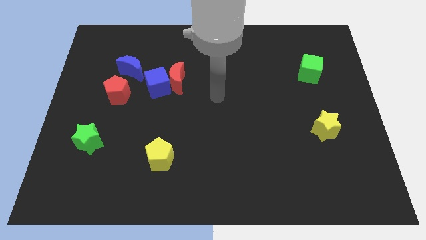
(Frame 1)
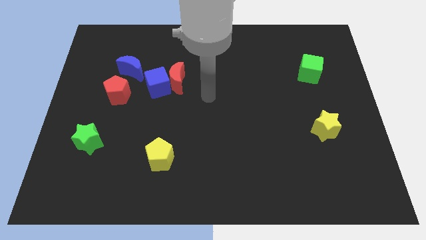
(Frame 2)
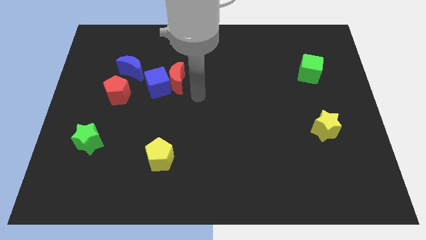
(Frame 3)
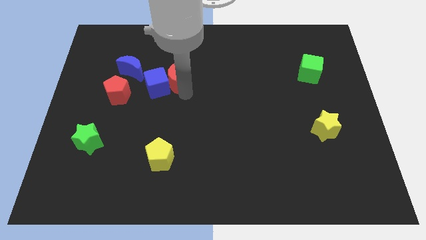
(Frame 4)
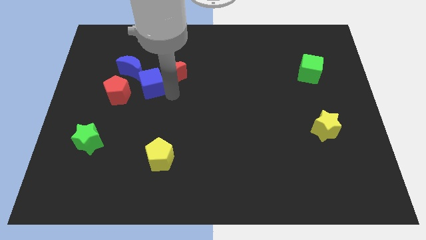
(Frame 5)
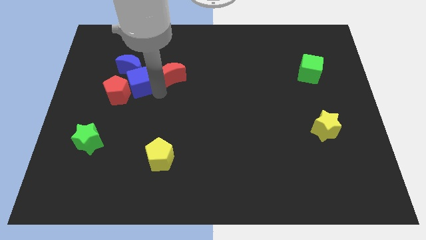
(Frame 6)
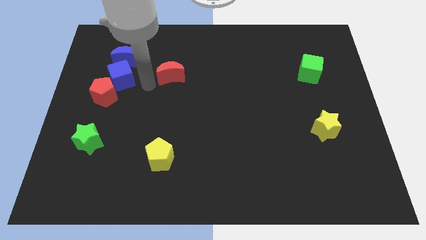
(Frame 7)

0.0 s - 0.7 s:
move the red moon away from the blue cube

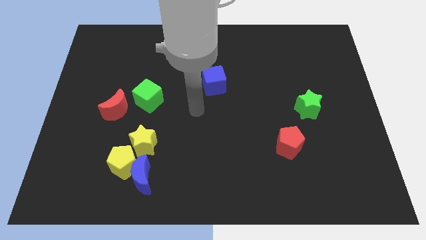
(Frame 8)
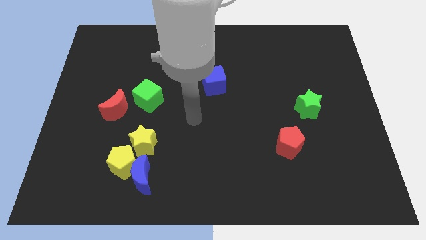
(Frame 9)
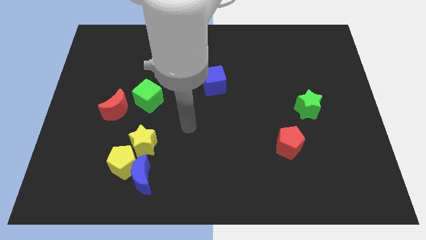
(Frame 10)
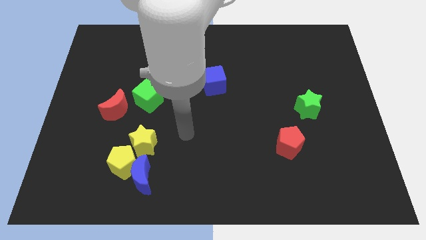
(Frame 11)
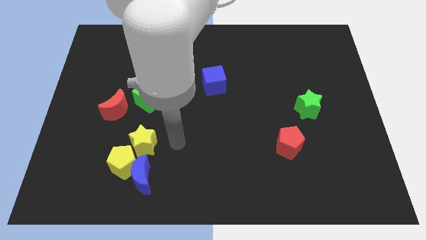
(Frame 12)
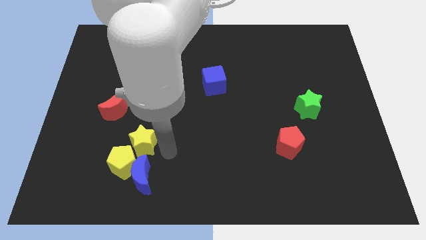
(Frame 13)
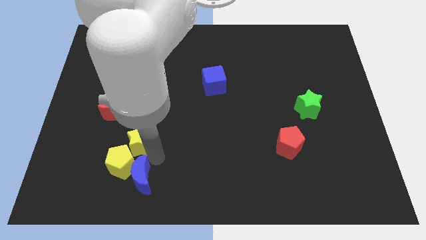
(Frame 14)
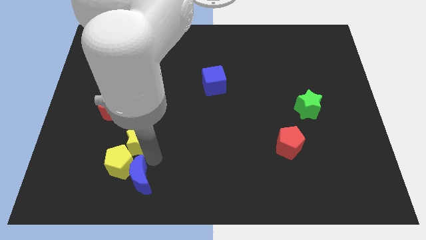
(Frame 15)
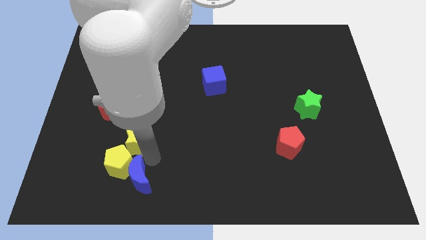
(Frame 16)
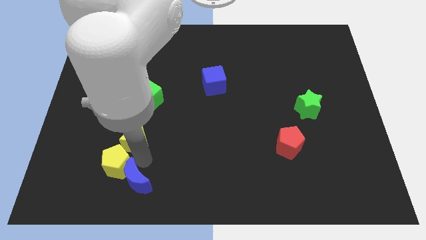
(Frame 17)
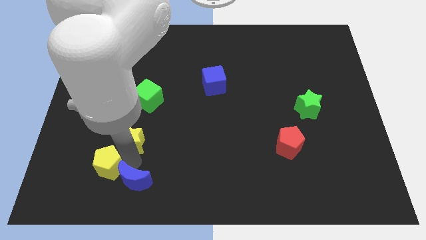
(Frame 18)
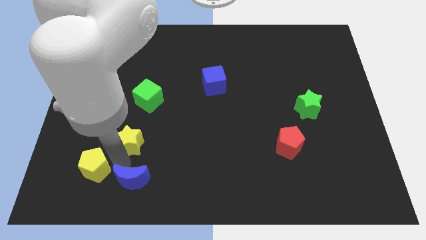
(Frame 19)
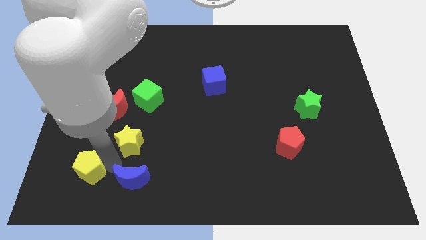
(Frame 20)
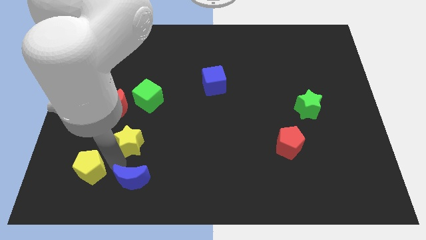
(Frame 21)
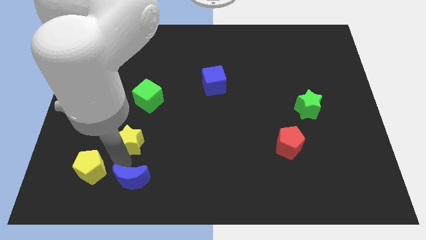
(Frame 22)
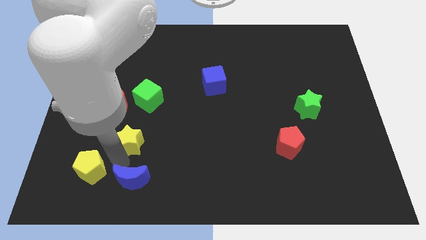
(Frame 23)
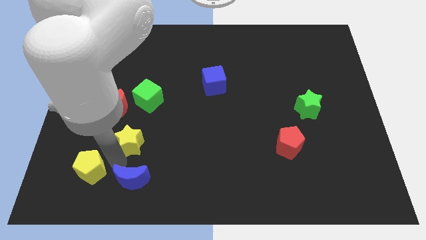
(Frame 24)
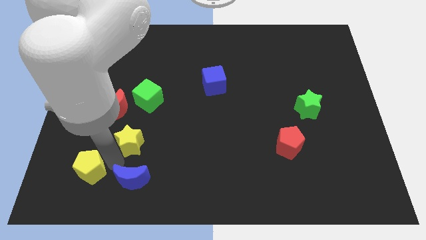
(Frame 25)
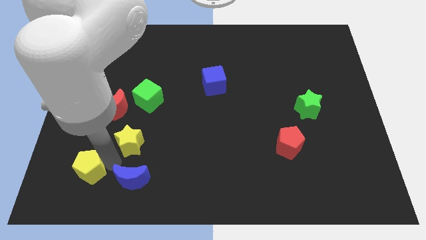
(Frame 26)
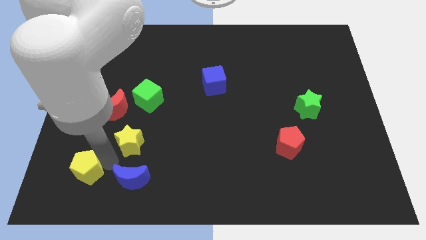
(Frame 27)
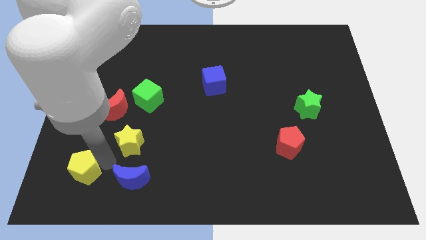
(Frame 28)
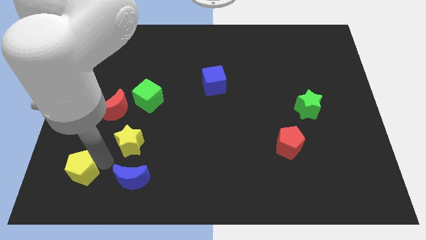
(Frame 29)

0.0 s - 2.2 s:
move the yellow pentagon away from the blue moon and yellow star

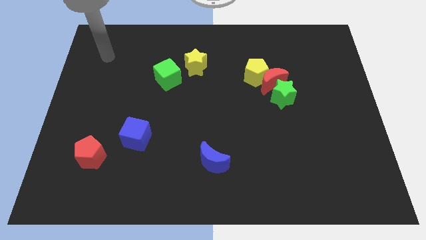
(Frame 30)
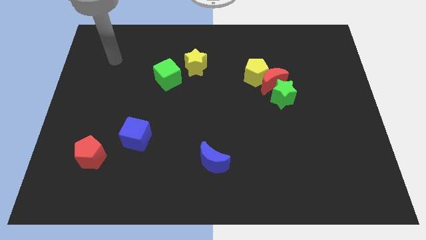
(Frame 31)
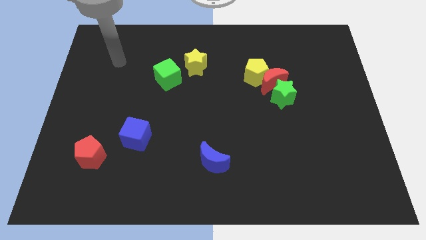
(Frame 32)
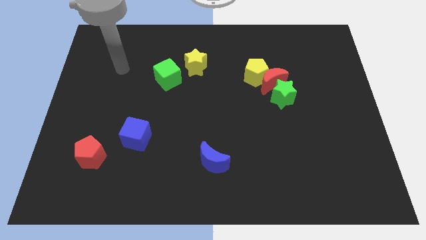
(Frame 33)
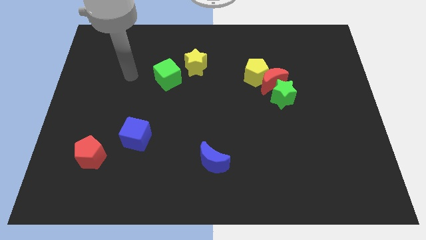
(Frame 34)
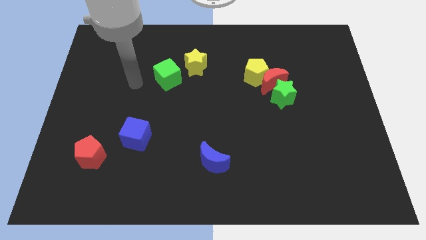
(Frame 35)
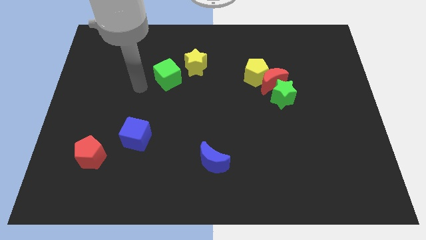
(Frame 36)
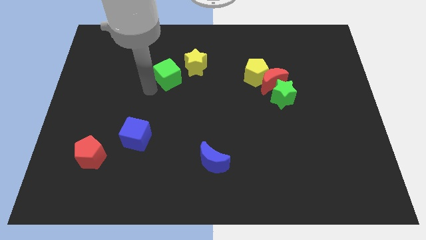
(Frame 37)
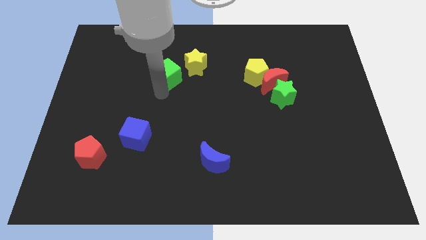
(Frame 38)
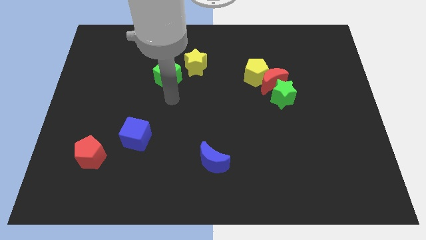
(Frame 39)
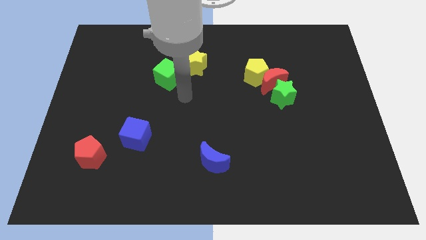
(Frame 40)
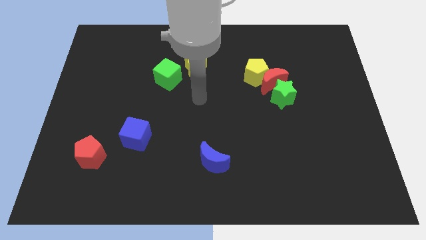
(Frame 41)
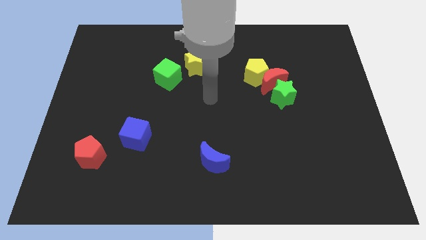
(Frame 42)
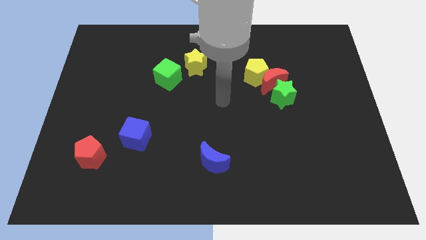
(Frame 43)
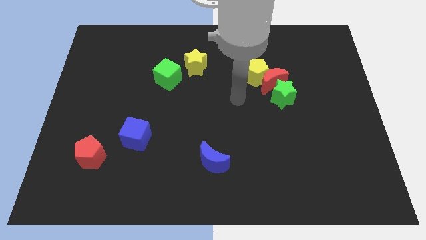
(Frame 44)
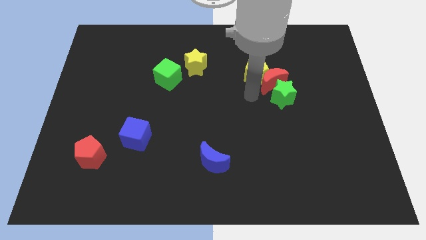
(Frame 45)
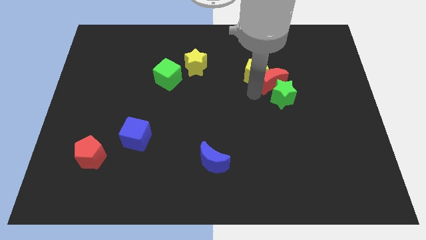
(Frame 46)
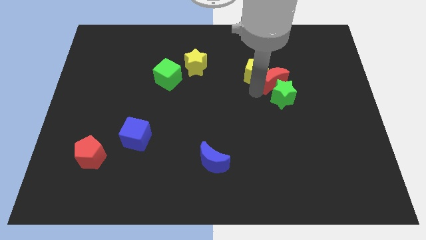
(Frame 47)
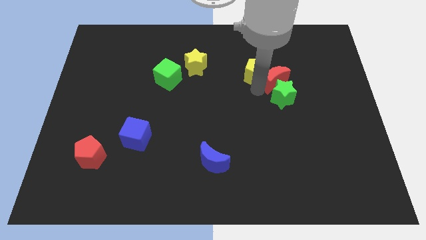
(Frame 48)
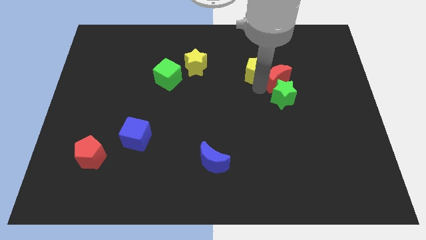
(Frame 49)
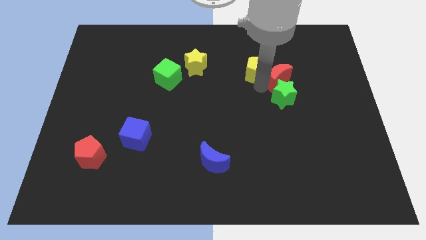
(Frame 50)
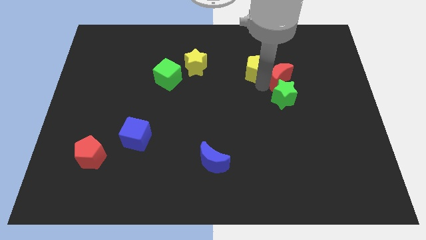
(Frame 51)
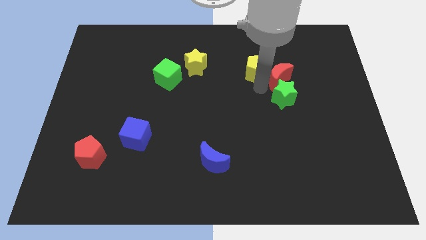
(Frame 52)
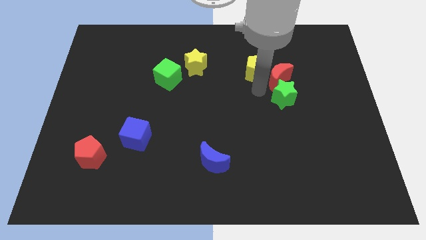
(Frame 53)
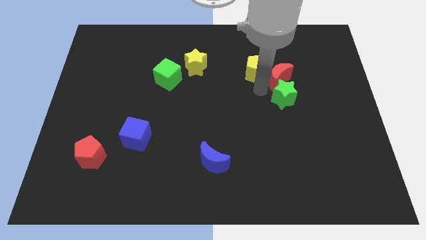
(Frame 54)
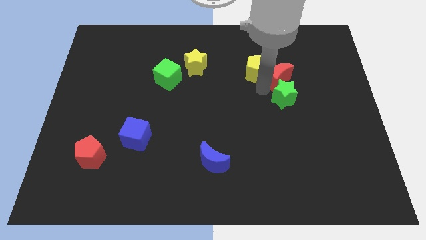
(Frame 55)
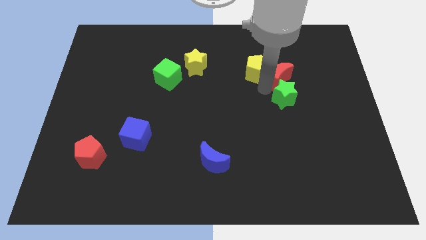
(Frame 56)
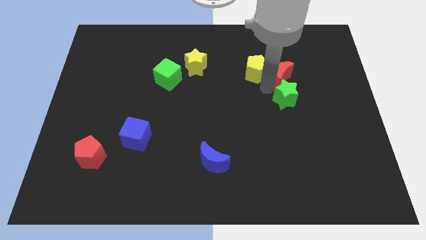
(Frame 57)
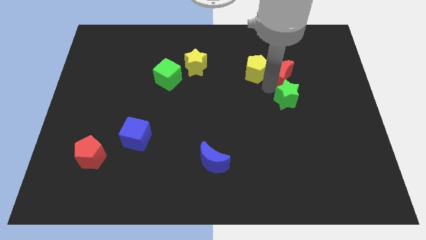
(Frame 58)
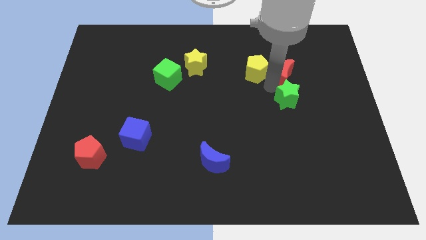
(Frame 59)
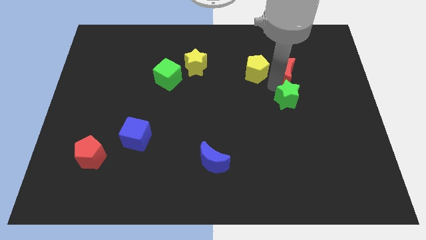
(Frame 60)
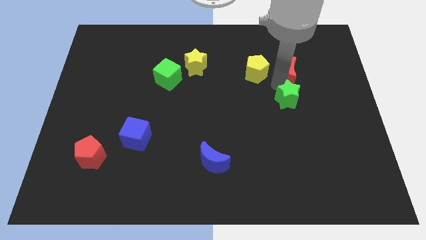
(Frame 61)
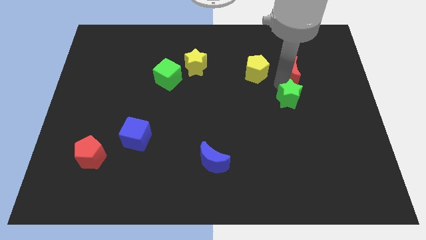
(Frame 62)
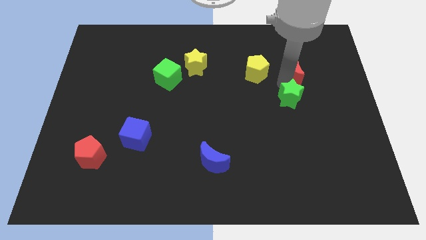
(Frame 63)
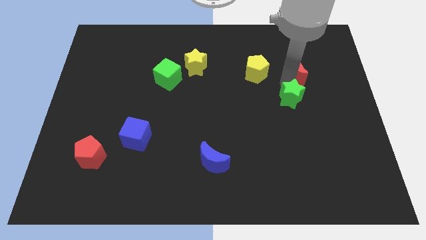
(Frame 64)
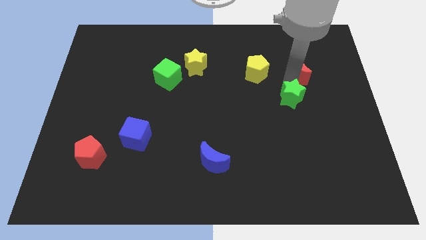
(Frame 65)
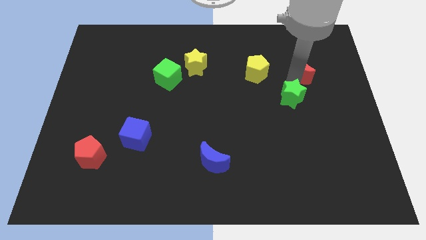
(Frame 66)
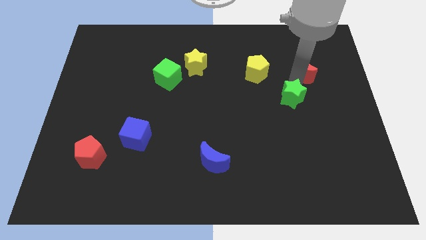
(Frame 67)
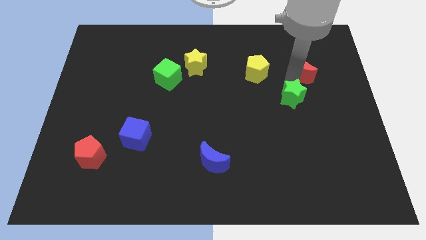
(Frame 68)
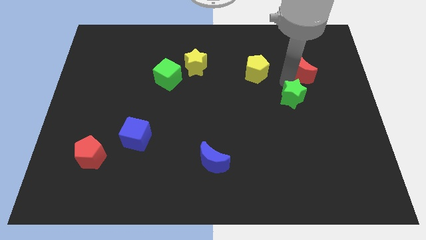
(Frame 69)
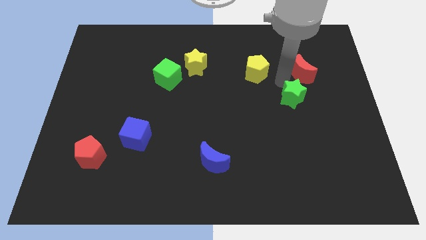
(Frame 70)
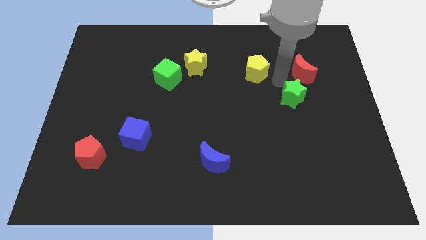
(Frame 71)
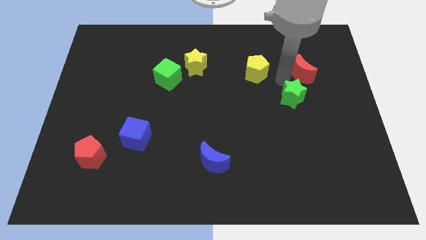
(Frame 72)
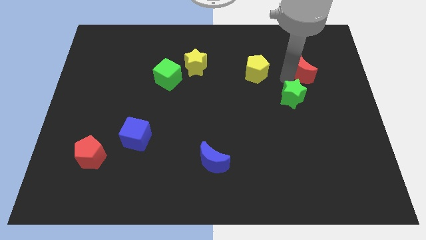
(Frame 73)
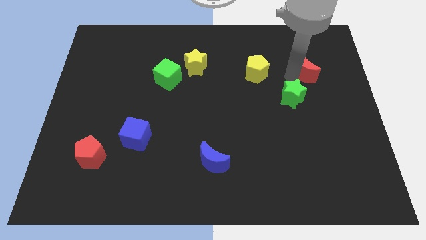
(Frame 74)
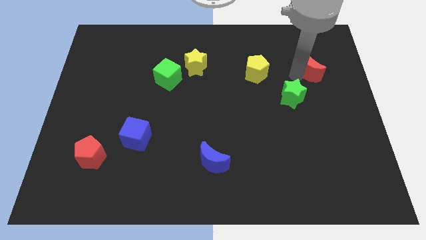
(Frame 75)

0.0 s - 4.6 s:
move the red moon away from the yellow pentagon and green star

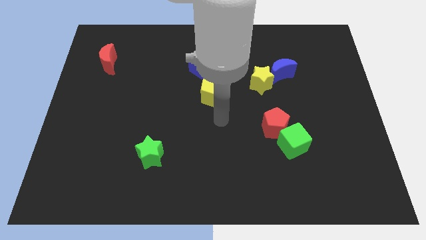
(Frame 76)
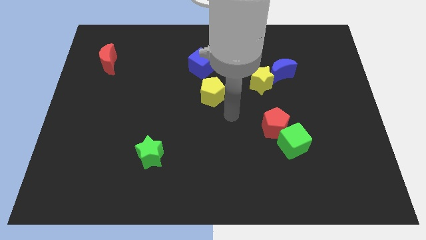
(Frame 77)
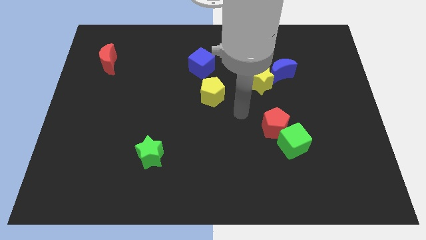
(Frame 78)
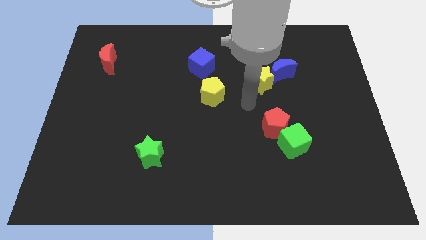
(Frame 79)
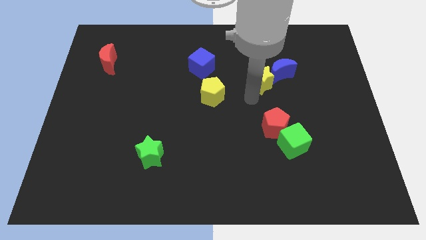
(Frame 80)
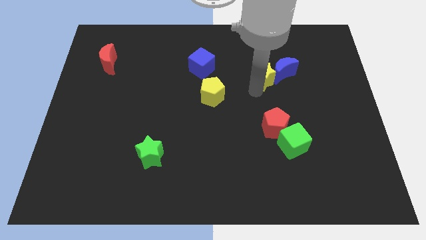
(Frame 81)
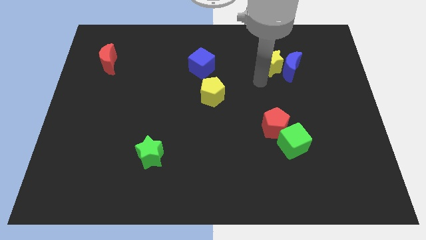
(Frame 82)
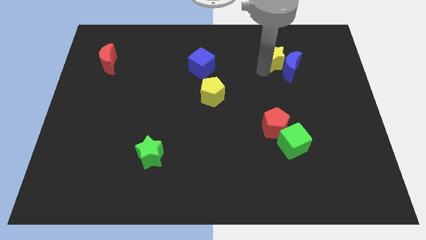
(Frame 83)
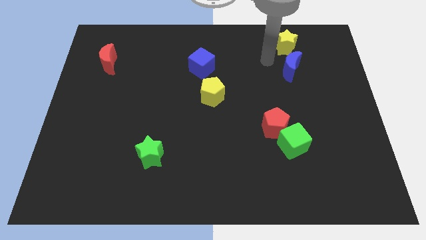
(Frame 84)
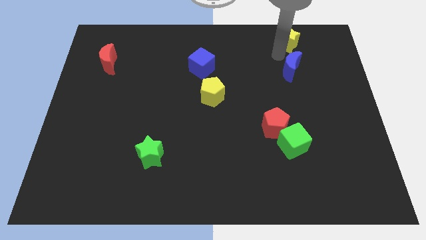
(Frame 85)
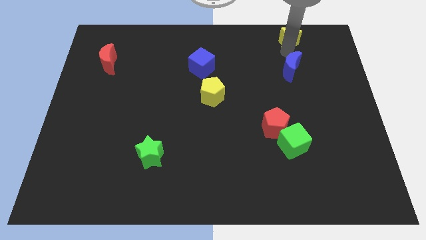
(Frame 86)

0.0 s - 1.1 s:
pull the blue moon apart from the yellow star

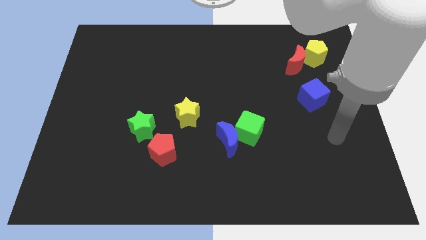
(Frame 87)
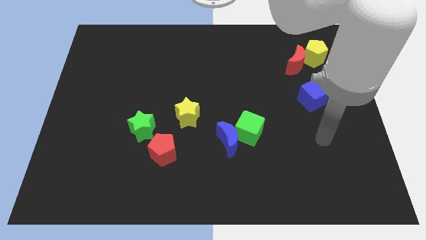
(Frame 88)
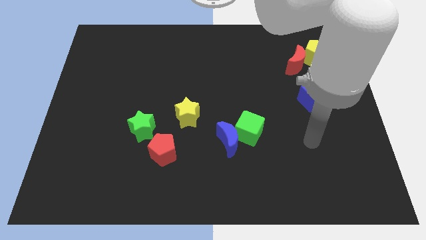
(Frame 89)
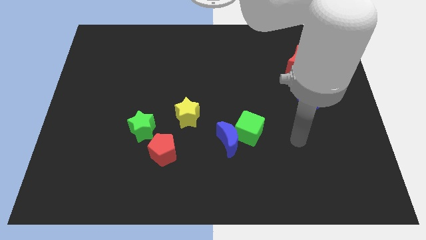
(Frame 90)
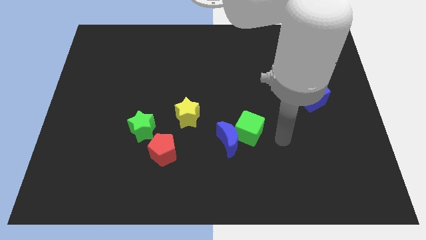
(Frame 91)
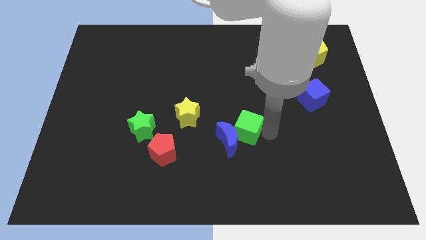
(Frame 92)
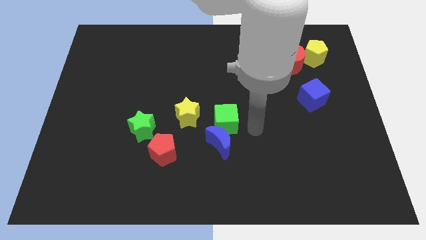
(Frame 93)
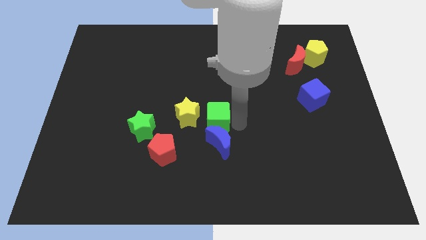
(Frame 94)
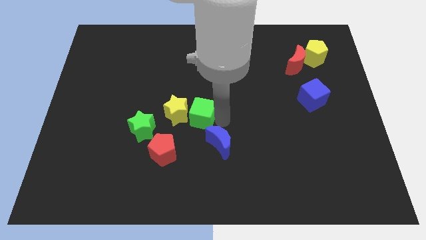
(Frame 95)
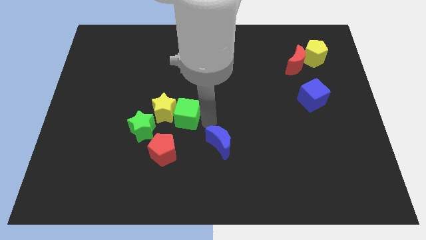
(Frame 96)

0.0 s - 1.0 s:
separate the blue moon from the green cube
